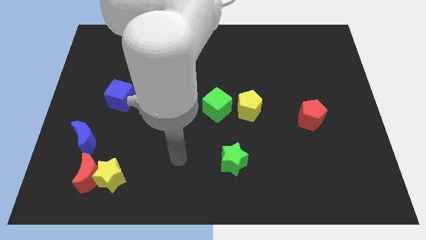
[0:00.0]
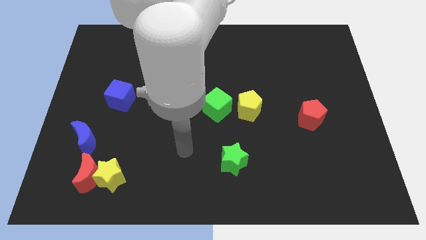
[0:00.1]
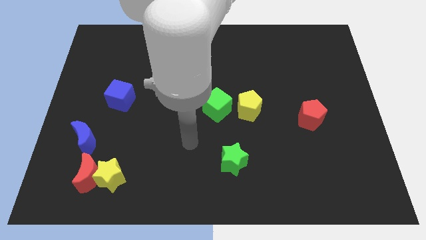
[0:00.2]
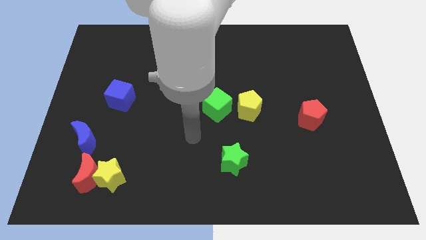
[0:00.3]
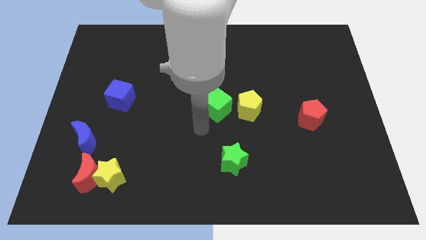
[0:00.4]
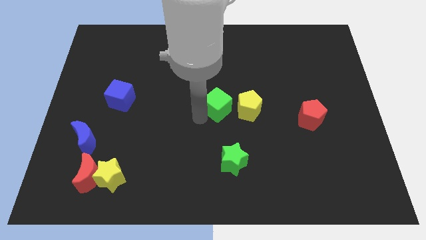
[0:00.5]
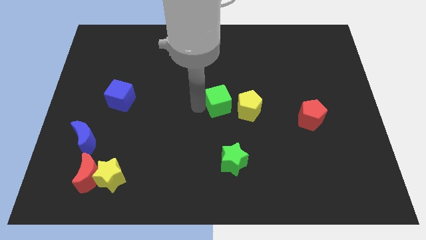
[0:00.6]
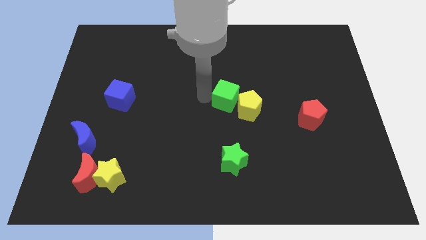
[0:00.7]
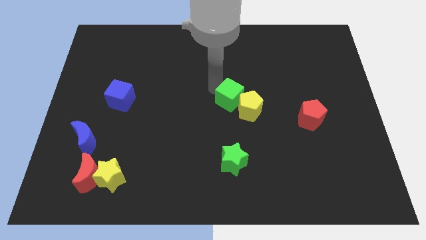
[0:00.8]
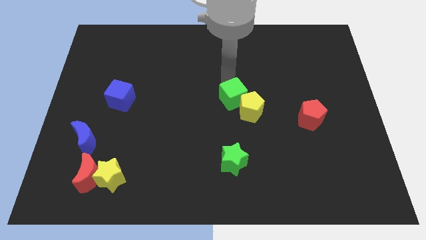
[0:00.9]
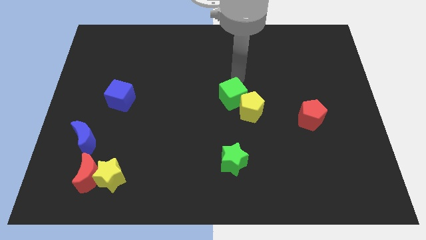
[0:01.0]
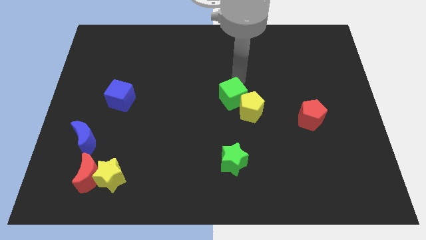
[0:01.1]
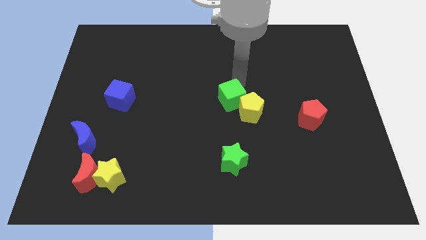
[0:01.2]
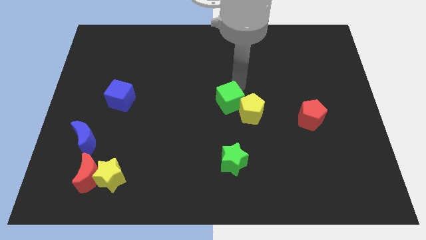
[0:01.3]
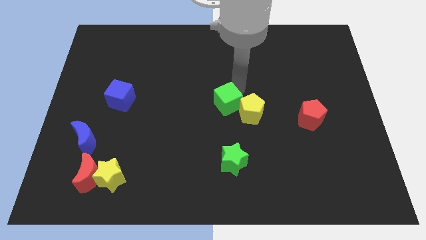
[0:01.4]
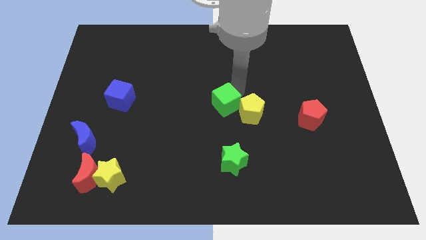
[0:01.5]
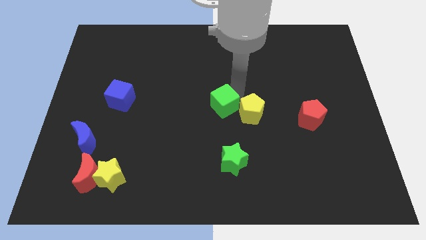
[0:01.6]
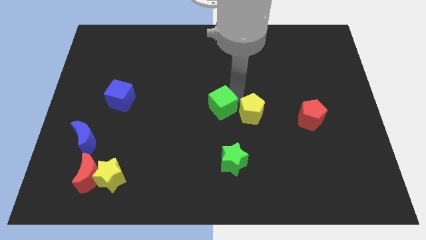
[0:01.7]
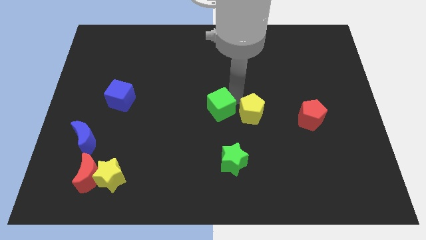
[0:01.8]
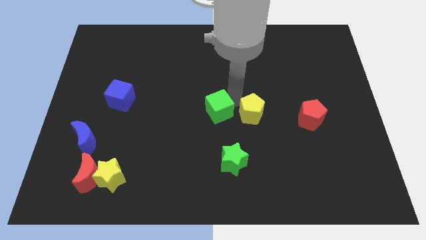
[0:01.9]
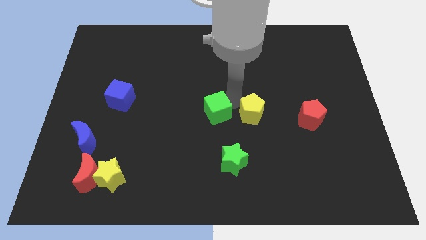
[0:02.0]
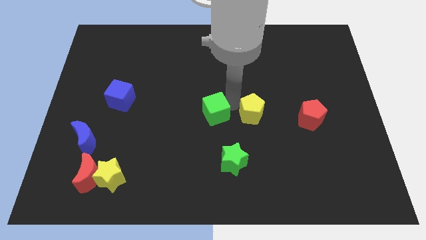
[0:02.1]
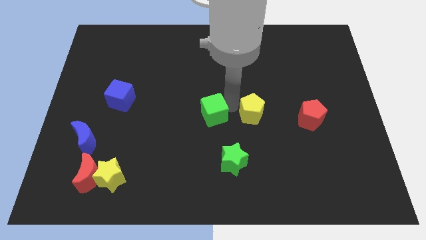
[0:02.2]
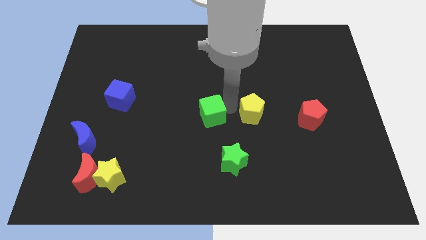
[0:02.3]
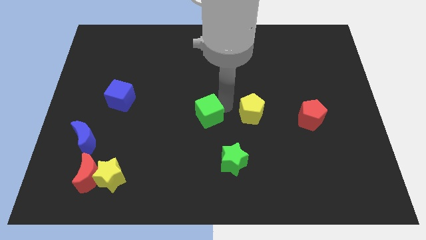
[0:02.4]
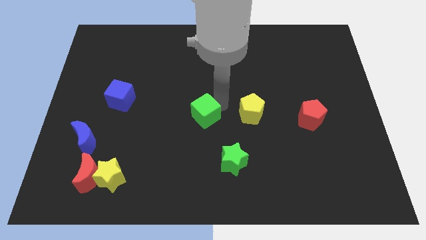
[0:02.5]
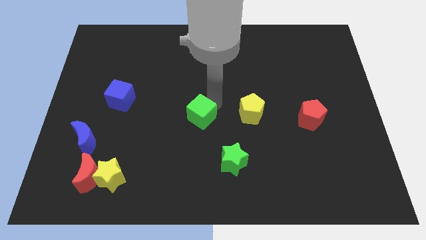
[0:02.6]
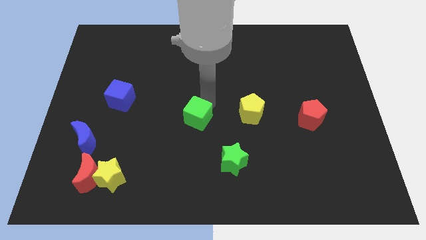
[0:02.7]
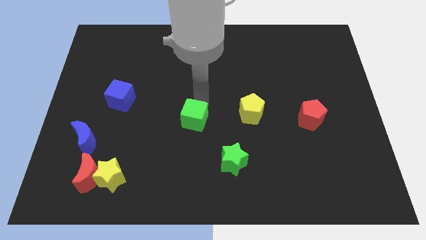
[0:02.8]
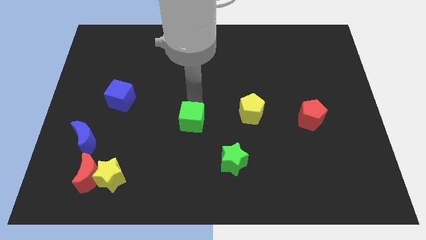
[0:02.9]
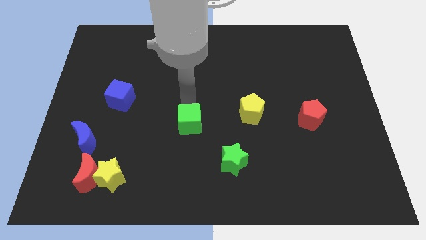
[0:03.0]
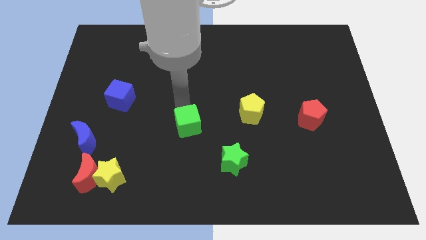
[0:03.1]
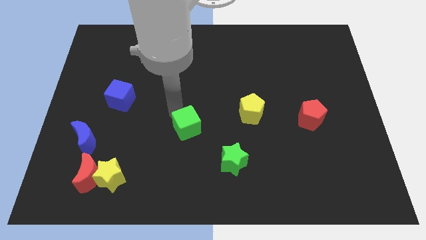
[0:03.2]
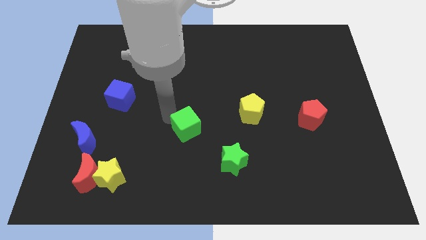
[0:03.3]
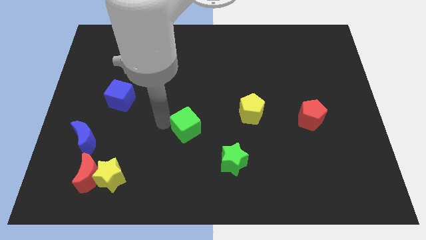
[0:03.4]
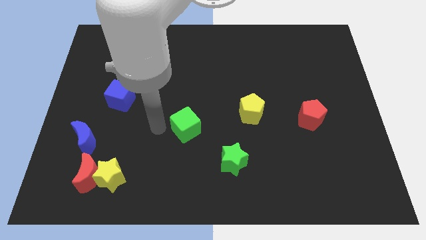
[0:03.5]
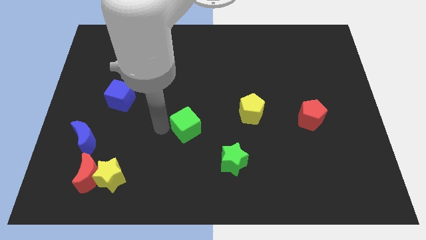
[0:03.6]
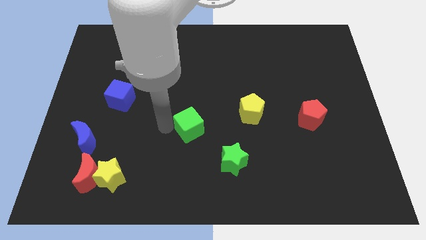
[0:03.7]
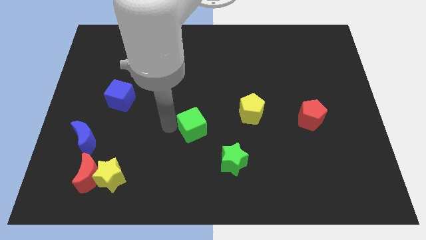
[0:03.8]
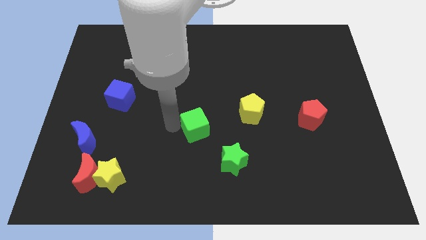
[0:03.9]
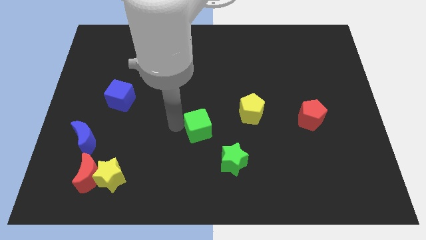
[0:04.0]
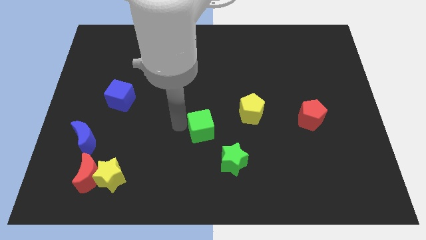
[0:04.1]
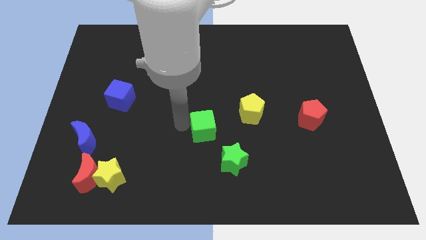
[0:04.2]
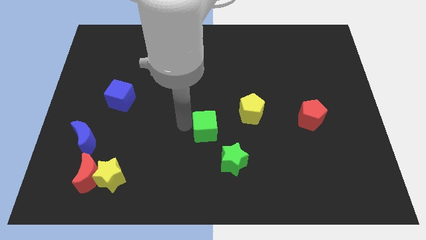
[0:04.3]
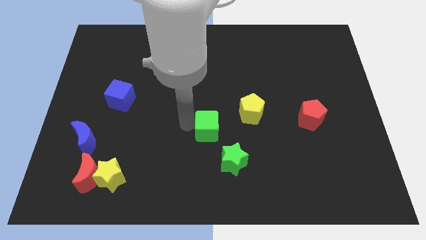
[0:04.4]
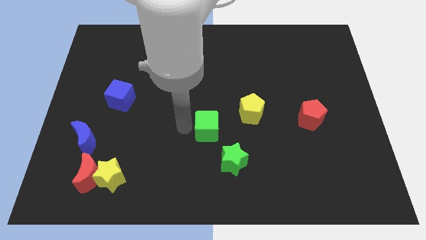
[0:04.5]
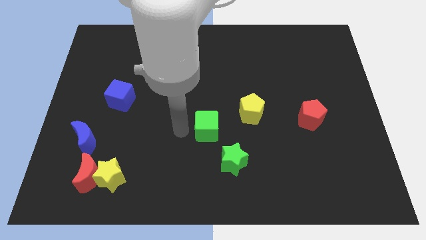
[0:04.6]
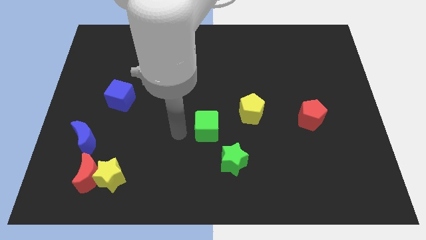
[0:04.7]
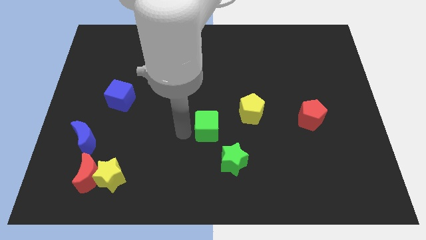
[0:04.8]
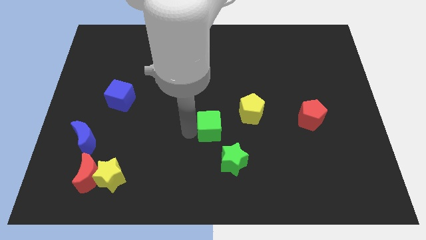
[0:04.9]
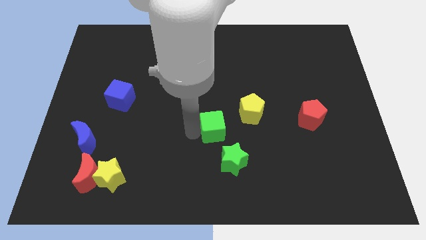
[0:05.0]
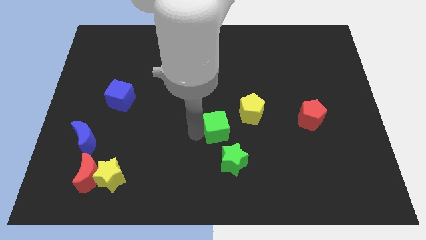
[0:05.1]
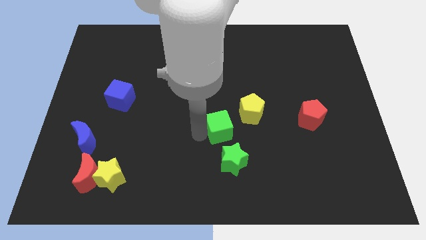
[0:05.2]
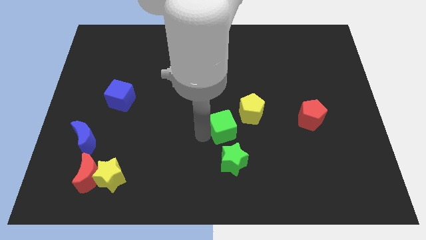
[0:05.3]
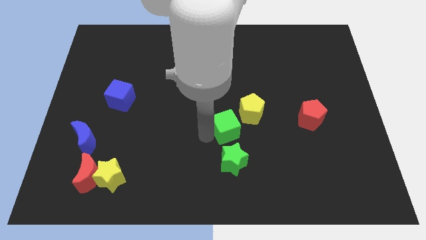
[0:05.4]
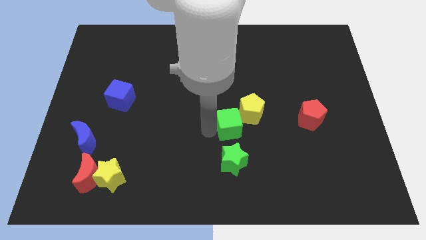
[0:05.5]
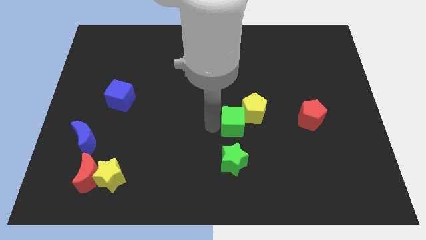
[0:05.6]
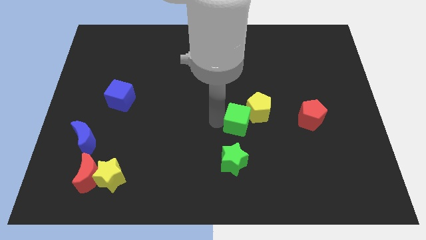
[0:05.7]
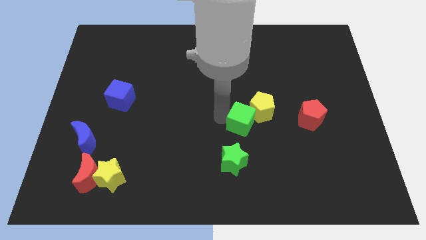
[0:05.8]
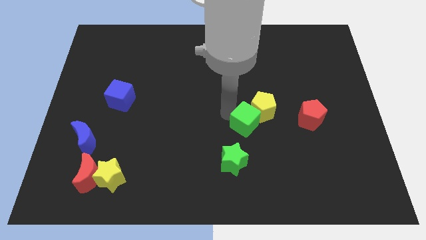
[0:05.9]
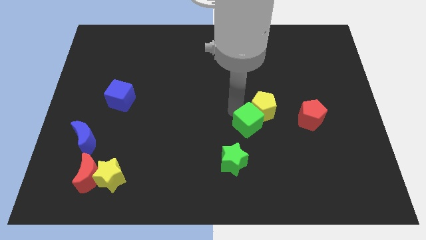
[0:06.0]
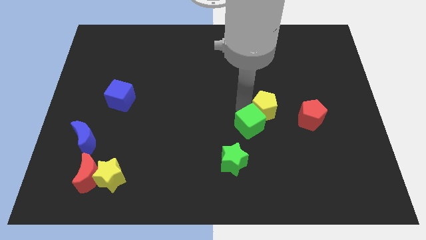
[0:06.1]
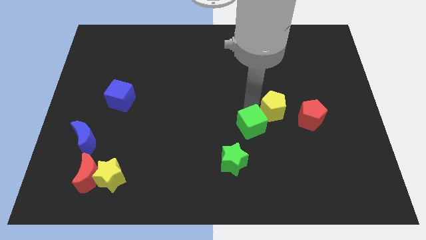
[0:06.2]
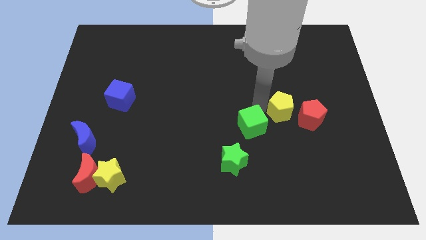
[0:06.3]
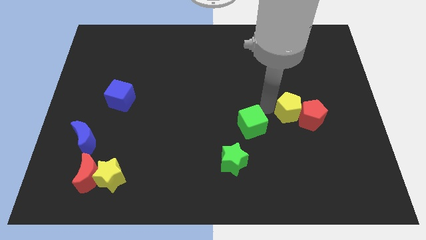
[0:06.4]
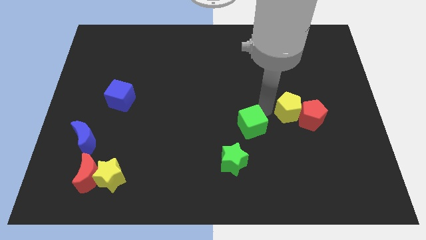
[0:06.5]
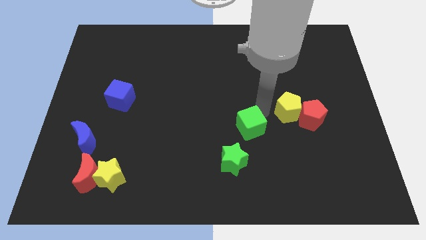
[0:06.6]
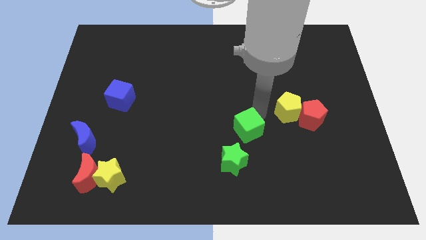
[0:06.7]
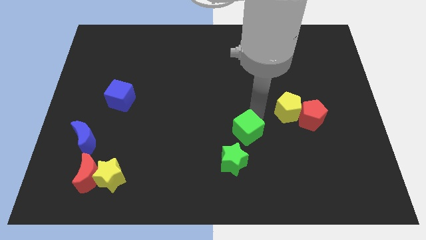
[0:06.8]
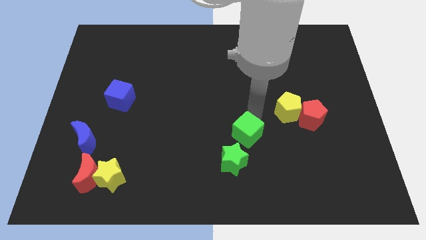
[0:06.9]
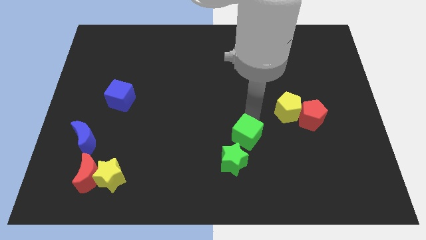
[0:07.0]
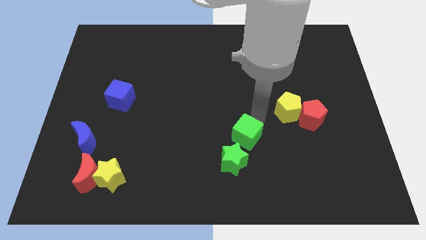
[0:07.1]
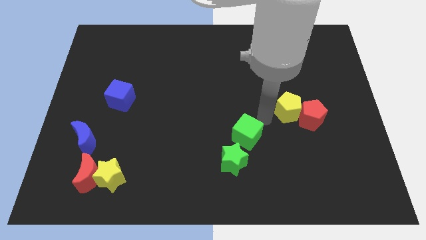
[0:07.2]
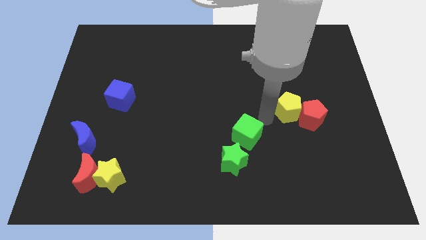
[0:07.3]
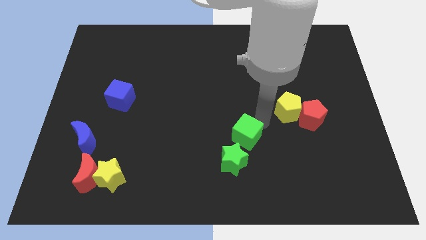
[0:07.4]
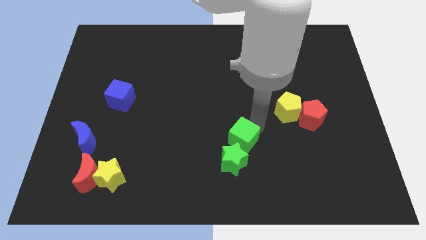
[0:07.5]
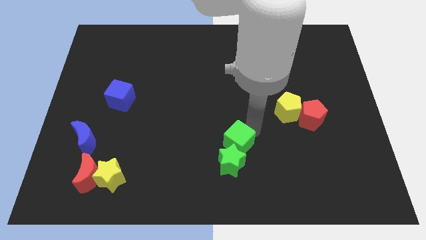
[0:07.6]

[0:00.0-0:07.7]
put the green cube towards the green star

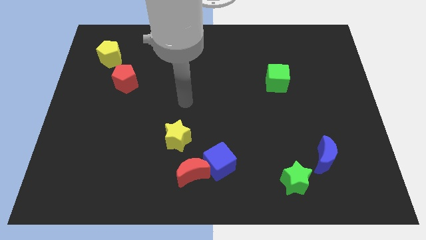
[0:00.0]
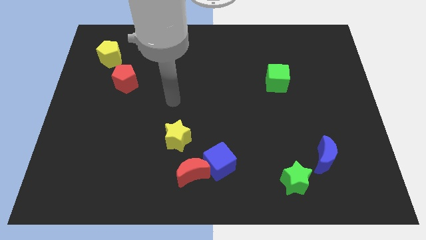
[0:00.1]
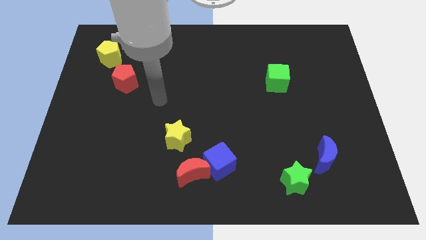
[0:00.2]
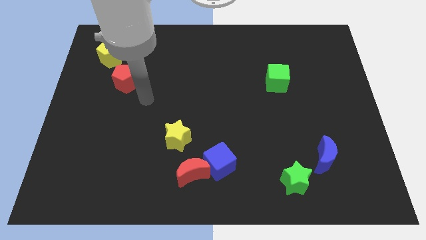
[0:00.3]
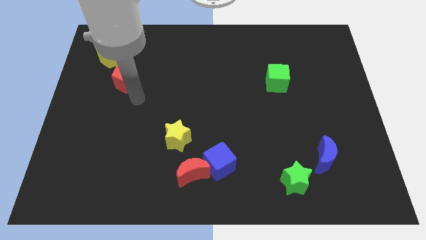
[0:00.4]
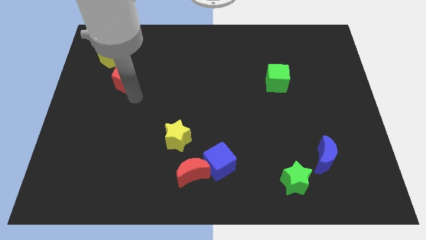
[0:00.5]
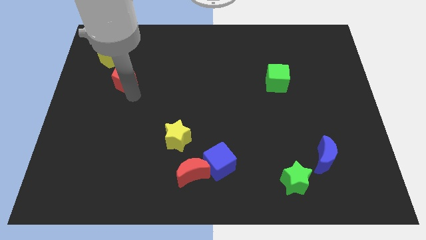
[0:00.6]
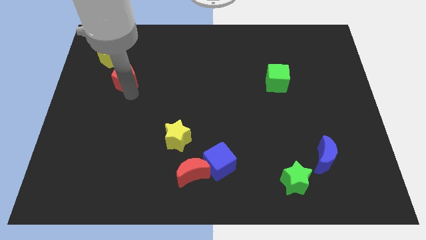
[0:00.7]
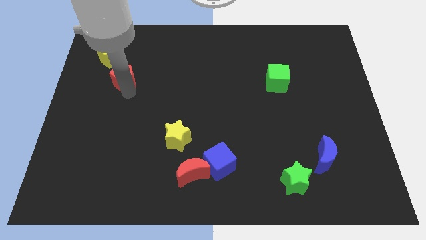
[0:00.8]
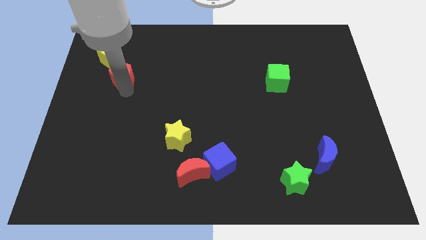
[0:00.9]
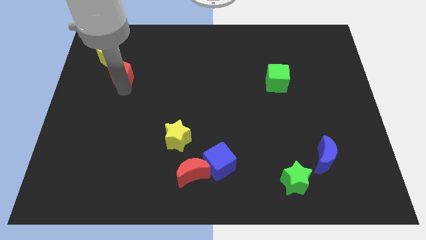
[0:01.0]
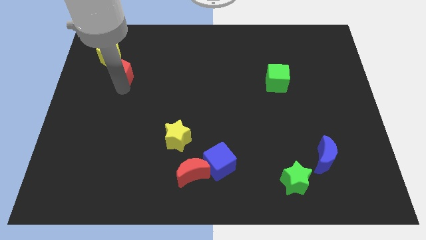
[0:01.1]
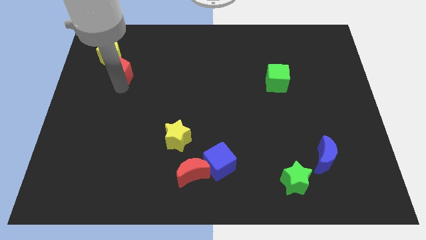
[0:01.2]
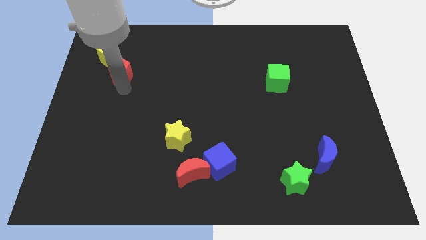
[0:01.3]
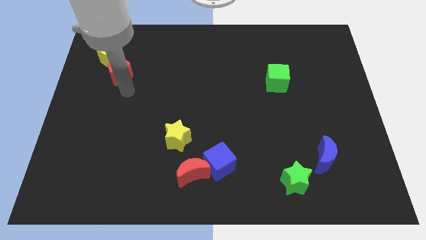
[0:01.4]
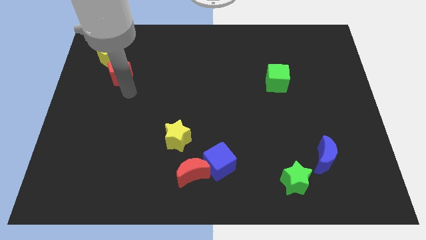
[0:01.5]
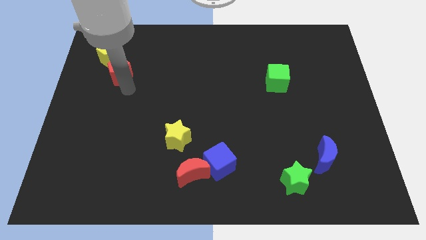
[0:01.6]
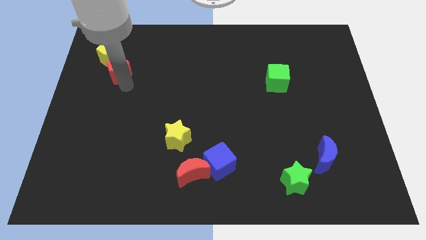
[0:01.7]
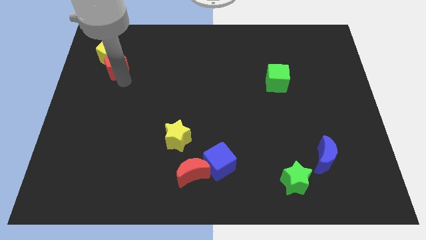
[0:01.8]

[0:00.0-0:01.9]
push the red pentagon close to the yellow pentagon
